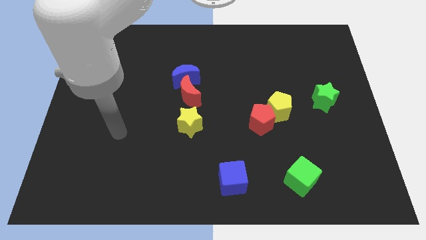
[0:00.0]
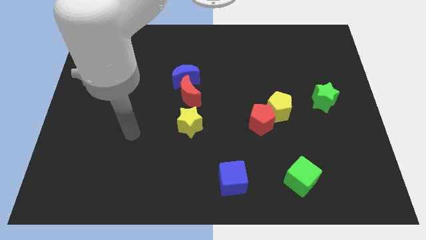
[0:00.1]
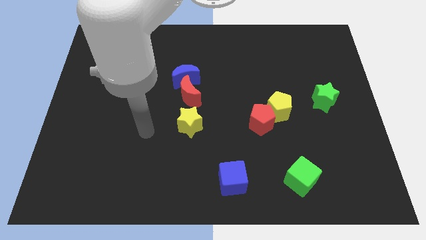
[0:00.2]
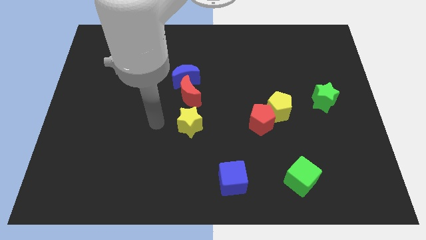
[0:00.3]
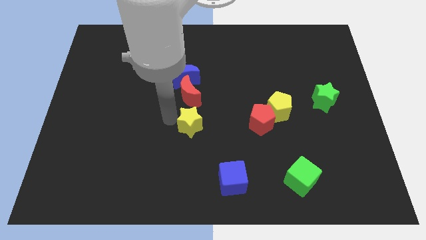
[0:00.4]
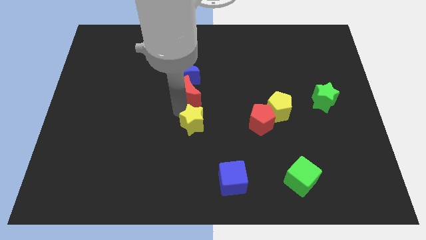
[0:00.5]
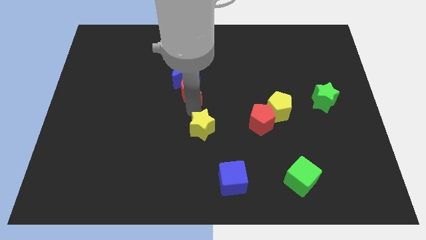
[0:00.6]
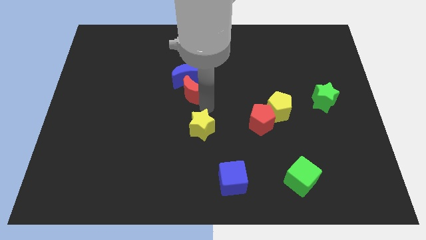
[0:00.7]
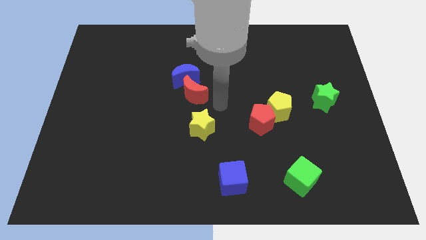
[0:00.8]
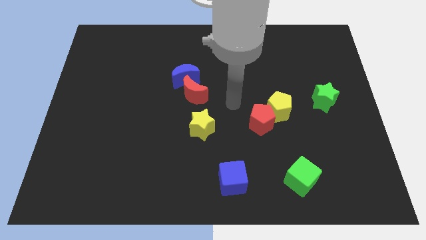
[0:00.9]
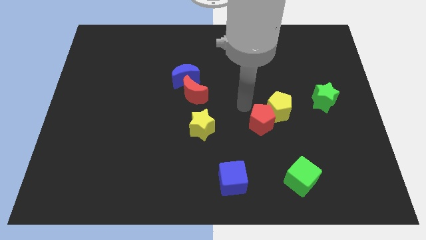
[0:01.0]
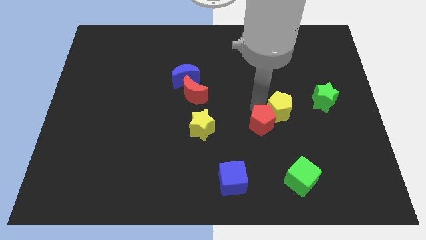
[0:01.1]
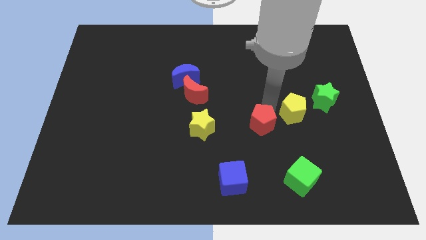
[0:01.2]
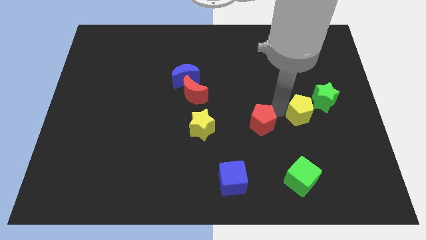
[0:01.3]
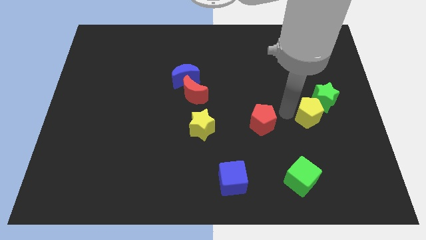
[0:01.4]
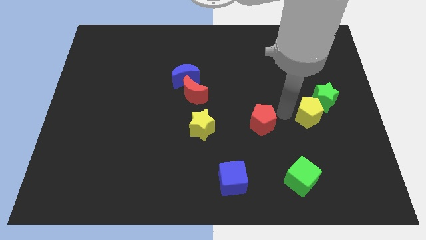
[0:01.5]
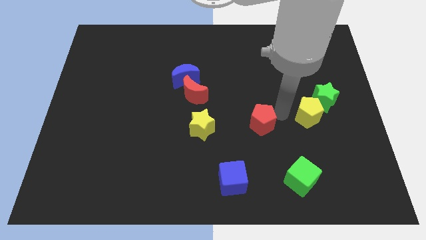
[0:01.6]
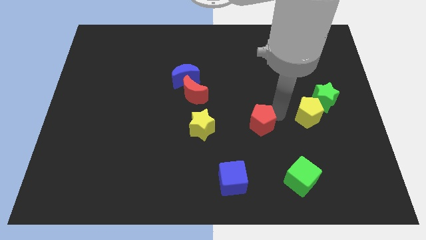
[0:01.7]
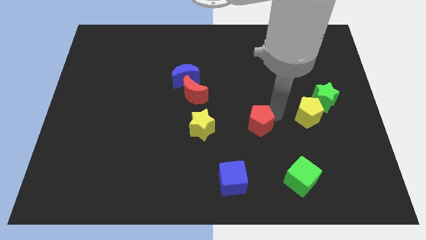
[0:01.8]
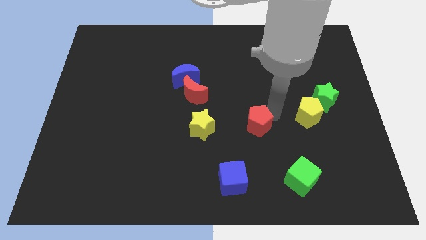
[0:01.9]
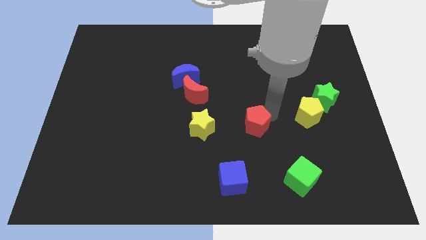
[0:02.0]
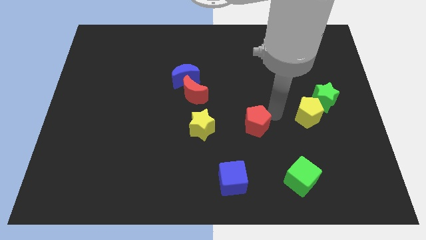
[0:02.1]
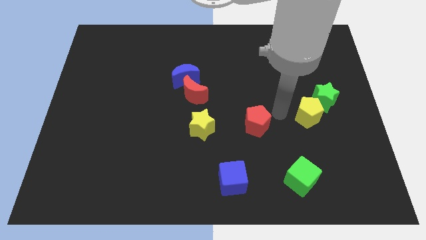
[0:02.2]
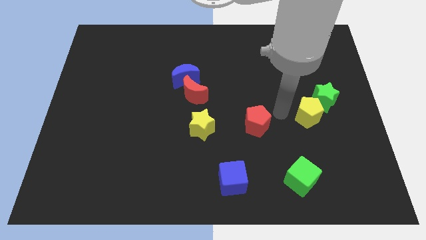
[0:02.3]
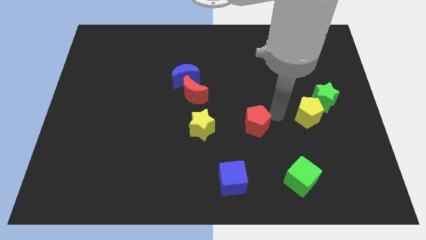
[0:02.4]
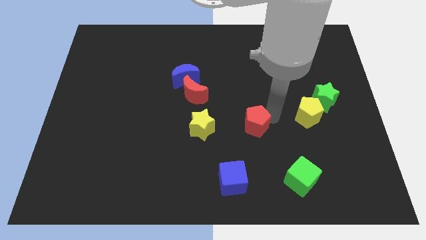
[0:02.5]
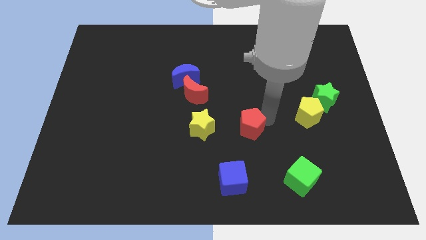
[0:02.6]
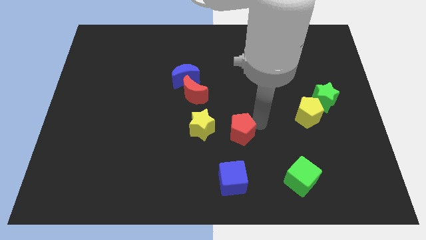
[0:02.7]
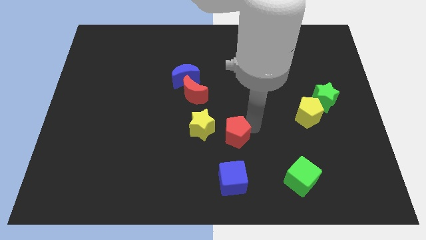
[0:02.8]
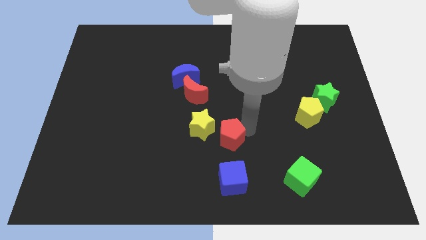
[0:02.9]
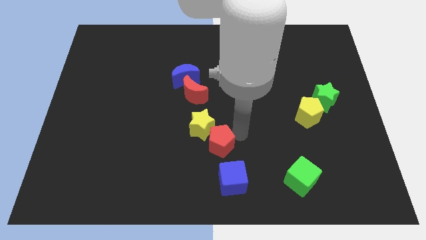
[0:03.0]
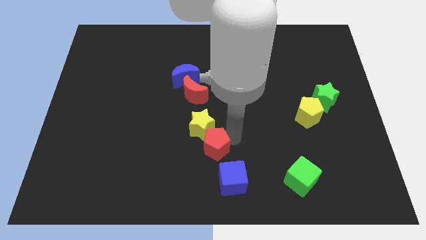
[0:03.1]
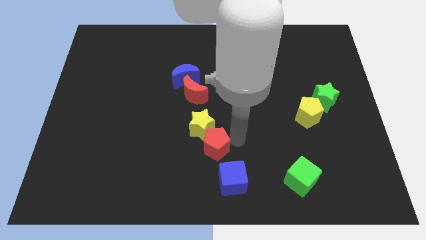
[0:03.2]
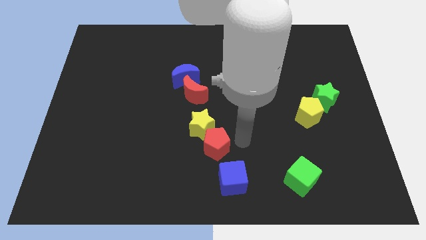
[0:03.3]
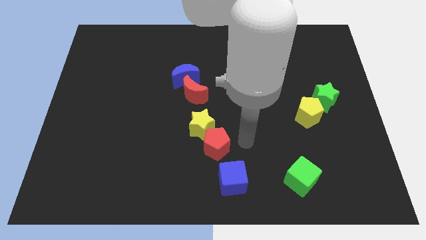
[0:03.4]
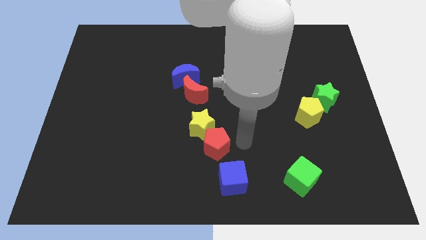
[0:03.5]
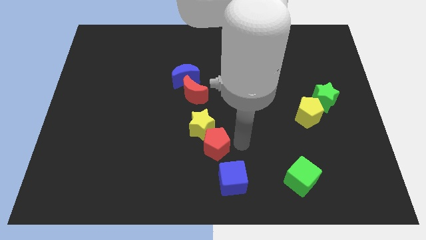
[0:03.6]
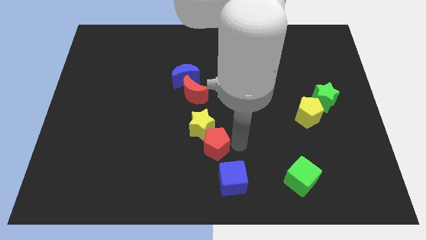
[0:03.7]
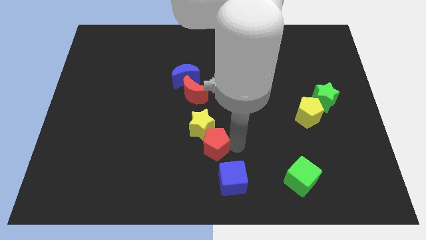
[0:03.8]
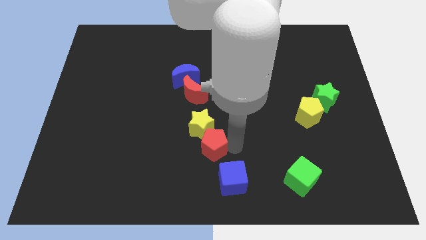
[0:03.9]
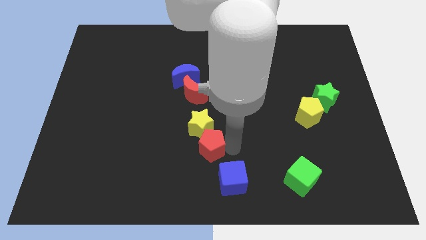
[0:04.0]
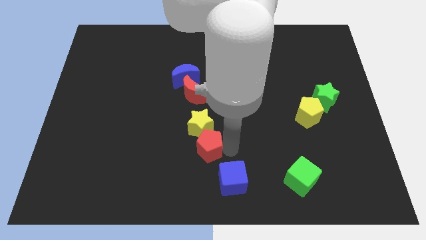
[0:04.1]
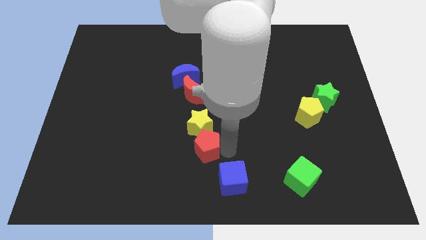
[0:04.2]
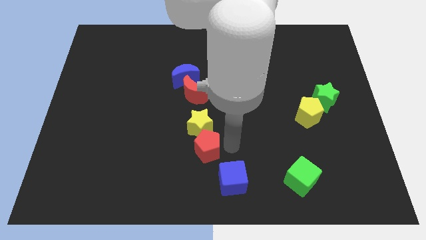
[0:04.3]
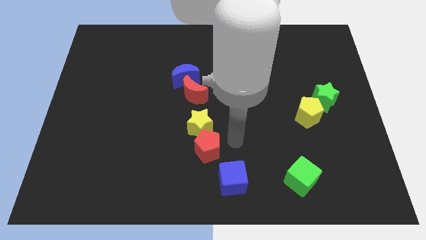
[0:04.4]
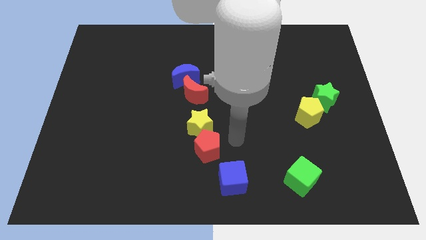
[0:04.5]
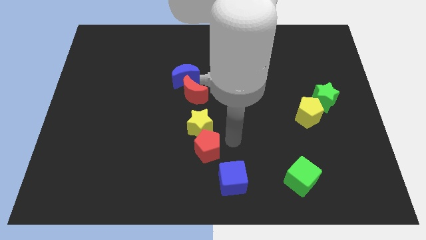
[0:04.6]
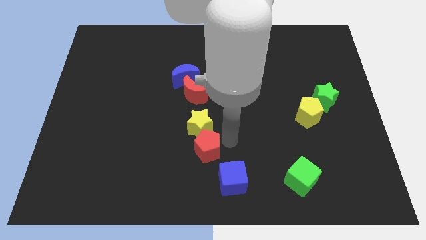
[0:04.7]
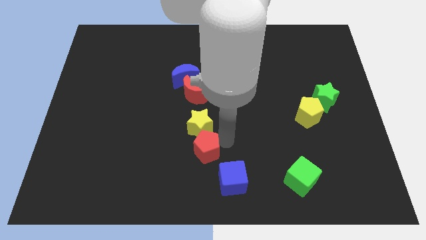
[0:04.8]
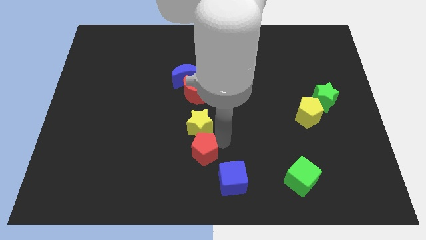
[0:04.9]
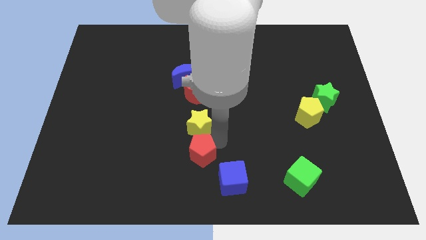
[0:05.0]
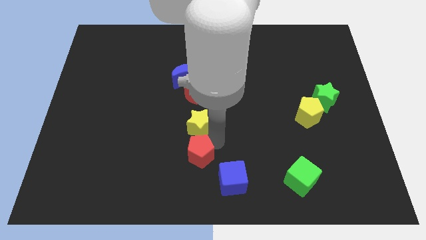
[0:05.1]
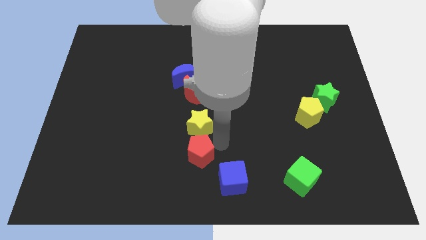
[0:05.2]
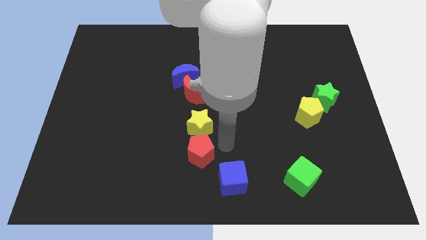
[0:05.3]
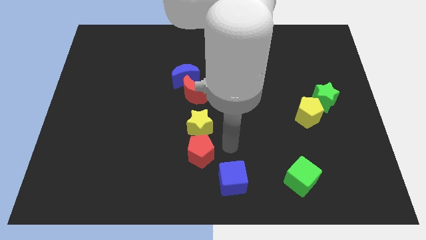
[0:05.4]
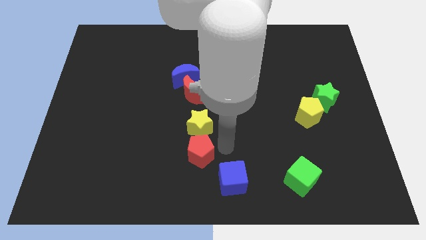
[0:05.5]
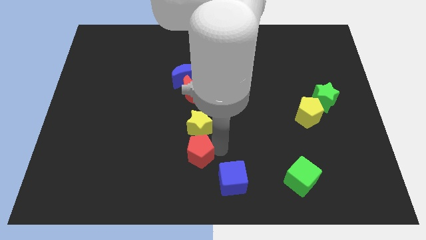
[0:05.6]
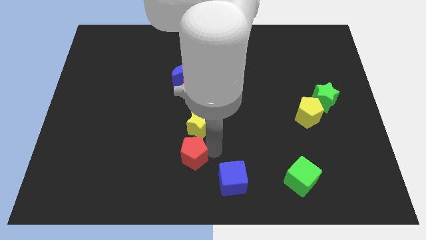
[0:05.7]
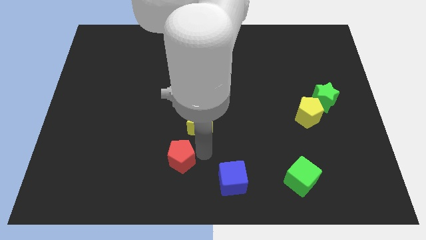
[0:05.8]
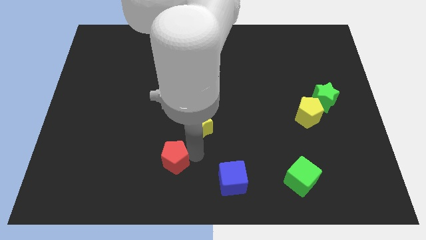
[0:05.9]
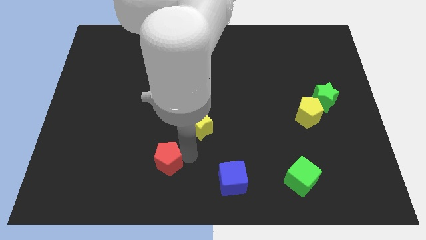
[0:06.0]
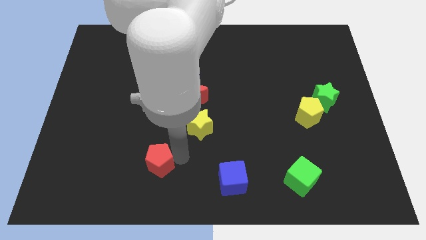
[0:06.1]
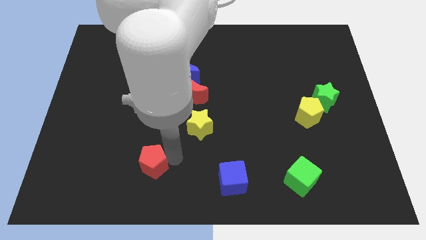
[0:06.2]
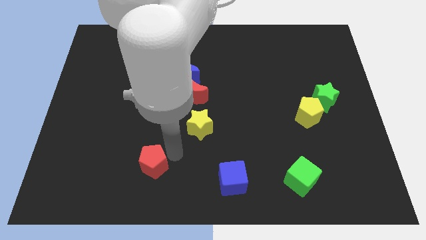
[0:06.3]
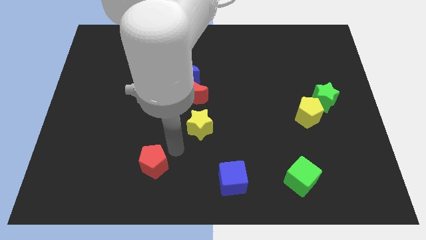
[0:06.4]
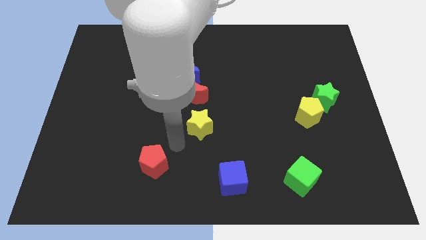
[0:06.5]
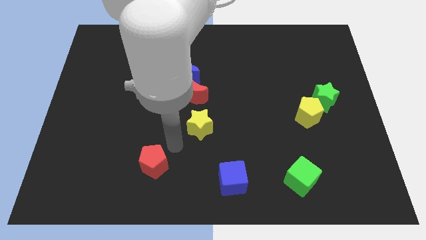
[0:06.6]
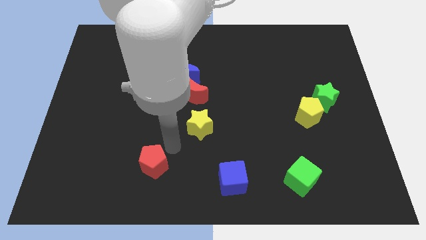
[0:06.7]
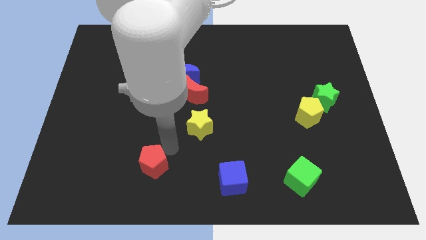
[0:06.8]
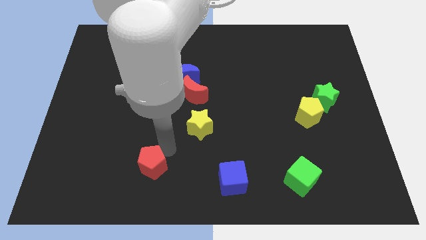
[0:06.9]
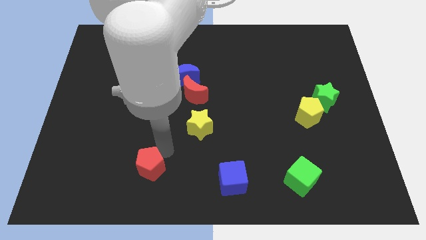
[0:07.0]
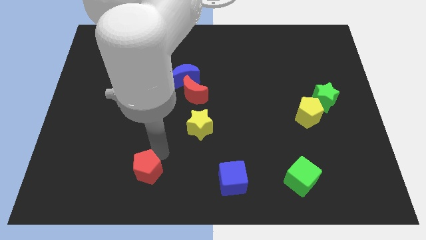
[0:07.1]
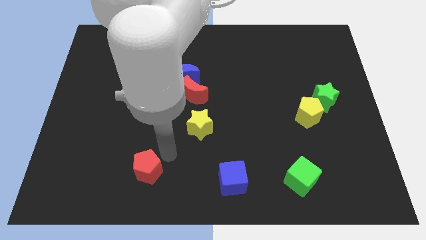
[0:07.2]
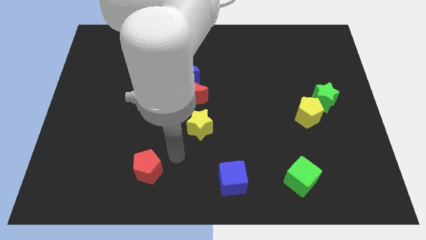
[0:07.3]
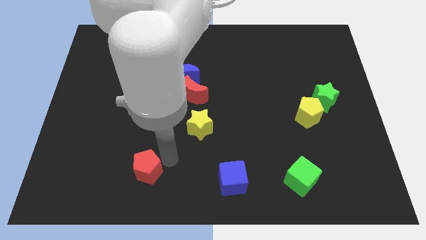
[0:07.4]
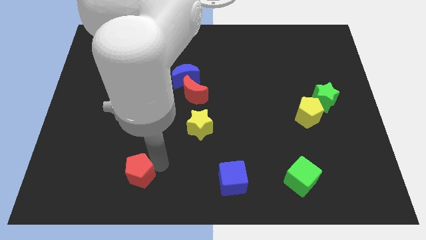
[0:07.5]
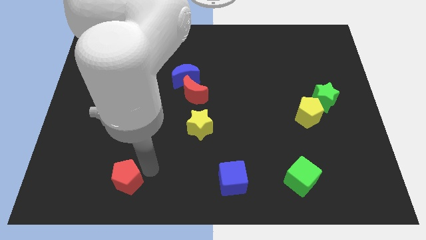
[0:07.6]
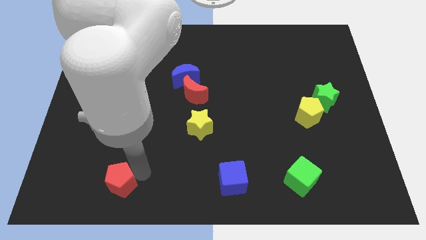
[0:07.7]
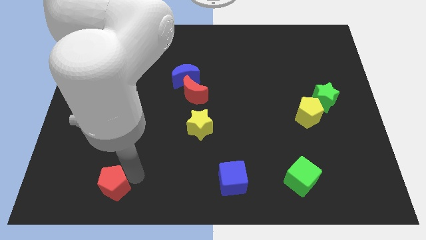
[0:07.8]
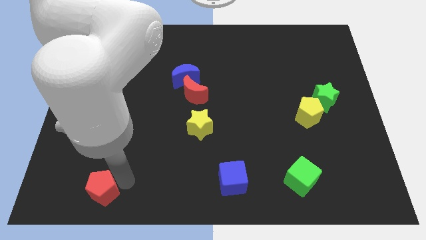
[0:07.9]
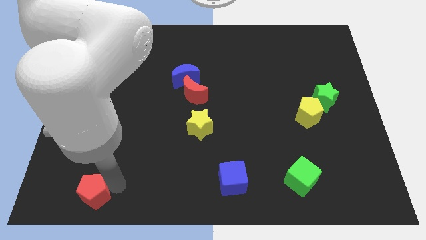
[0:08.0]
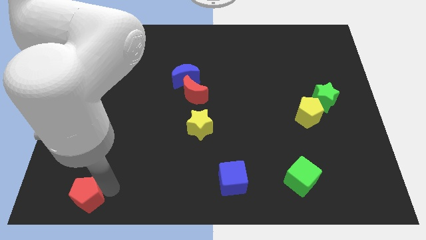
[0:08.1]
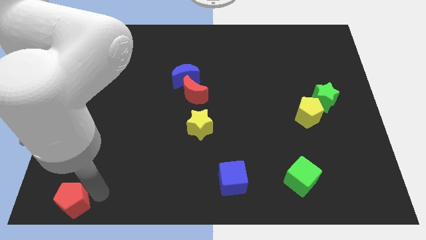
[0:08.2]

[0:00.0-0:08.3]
push the red pentagon to the bottom left
